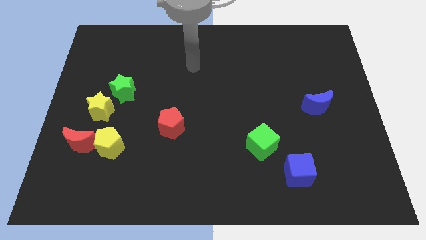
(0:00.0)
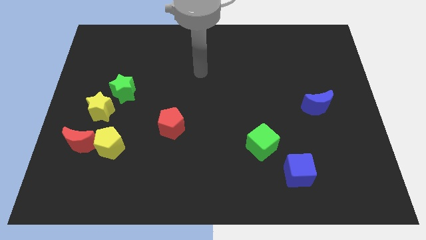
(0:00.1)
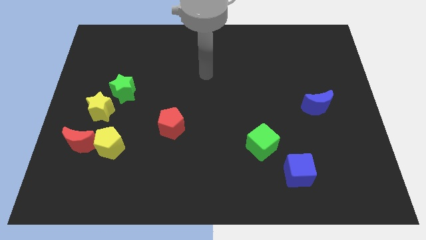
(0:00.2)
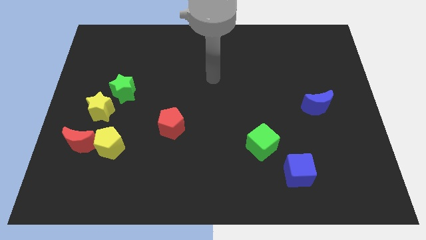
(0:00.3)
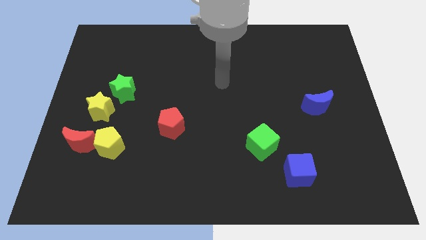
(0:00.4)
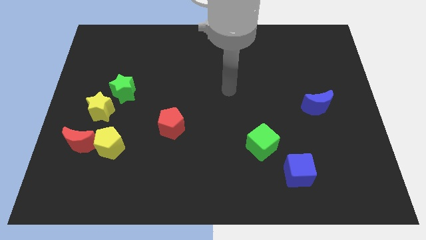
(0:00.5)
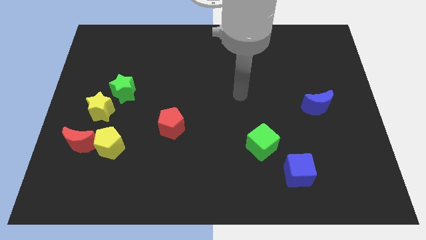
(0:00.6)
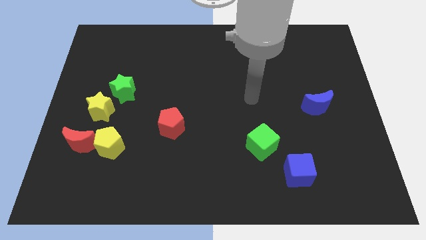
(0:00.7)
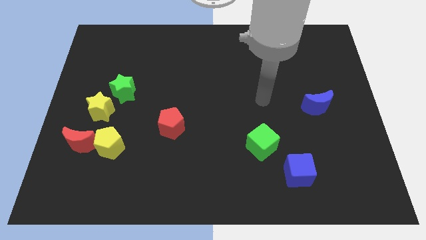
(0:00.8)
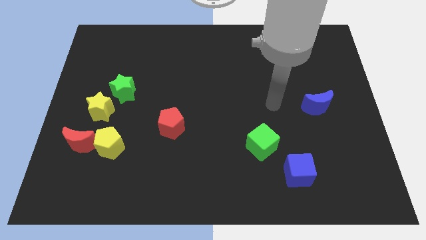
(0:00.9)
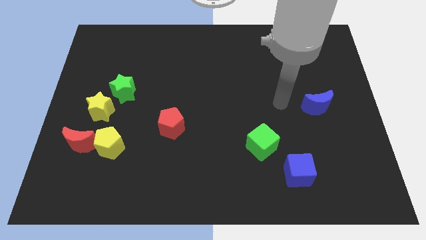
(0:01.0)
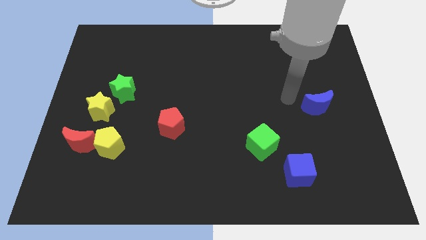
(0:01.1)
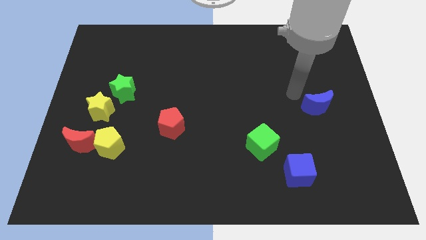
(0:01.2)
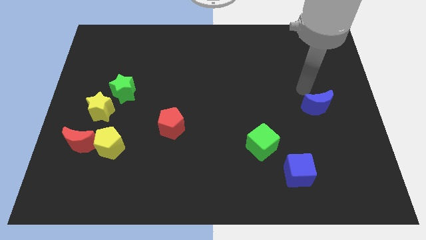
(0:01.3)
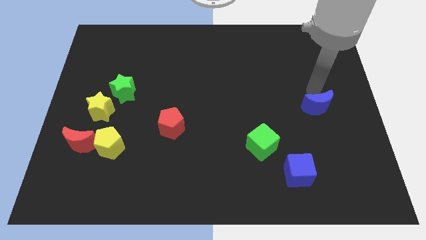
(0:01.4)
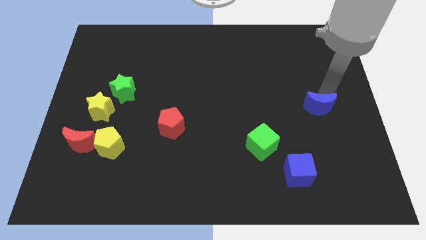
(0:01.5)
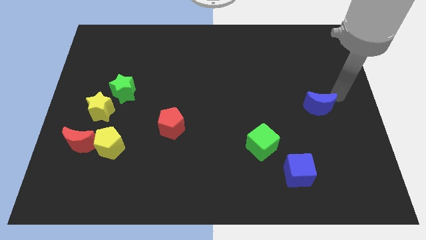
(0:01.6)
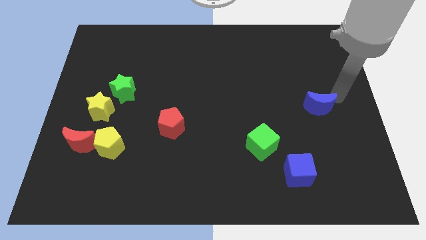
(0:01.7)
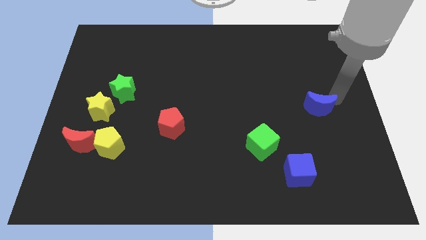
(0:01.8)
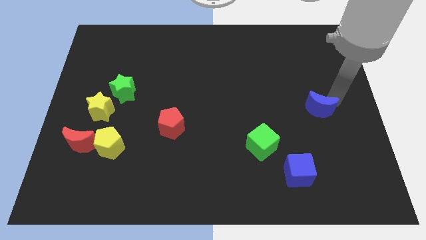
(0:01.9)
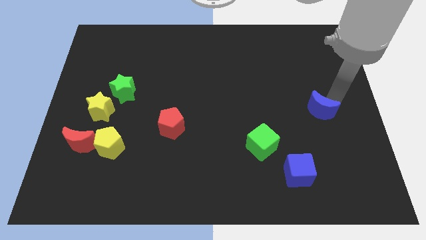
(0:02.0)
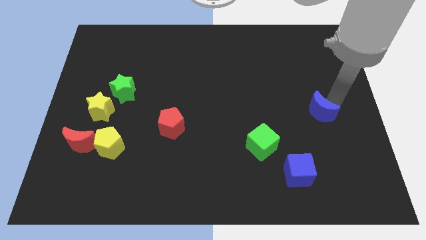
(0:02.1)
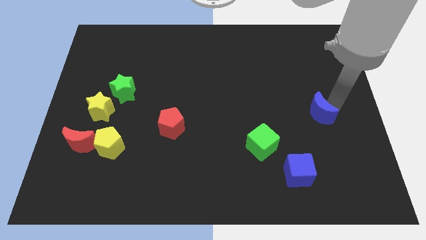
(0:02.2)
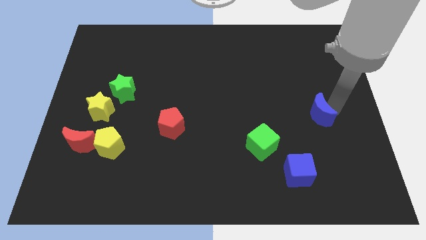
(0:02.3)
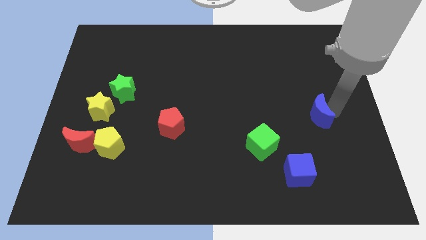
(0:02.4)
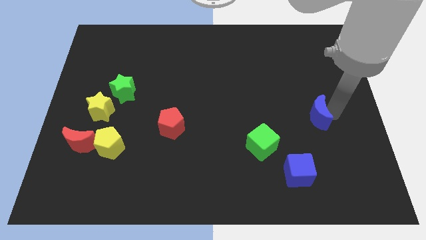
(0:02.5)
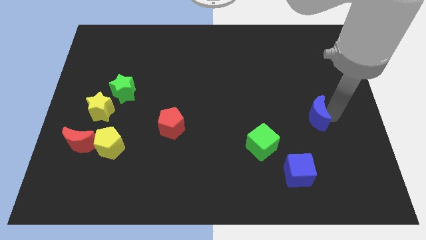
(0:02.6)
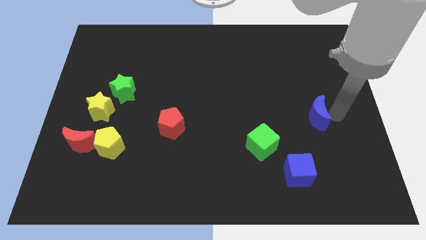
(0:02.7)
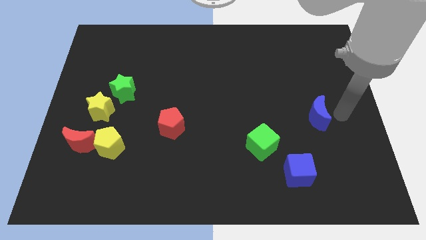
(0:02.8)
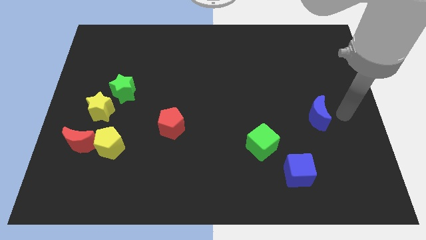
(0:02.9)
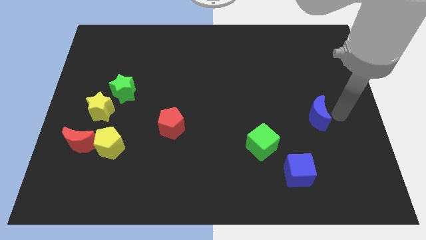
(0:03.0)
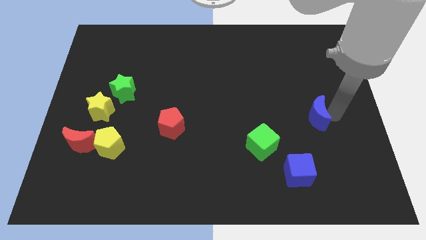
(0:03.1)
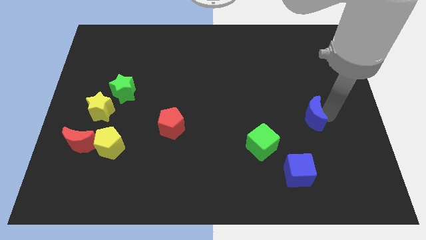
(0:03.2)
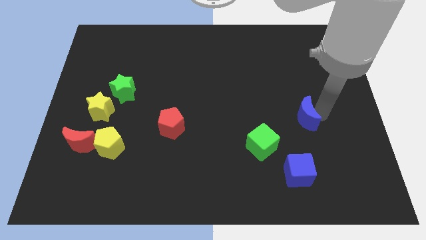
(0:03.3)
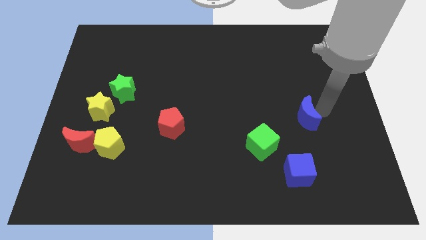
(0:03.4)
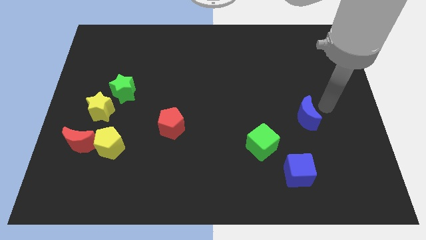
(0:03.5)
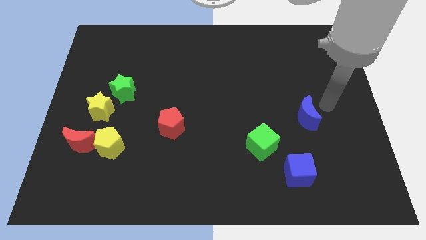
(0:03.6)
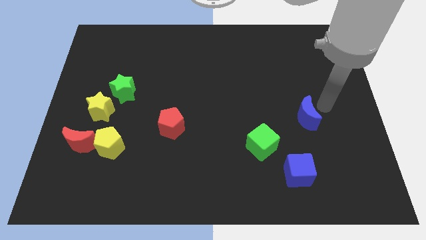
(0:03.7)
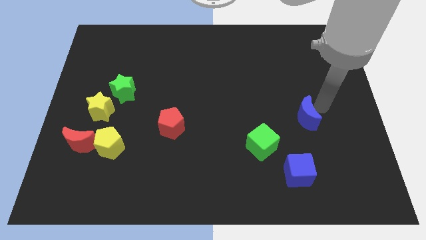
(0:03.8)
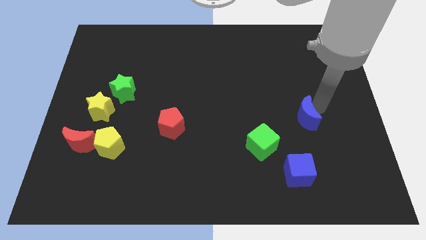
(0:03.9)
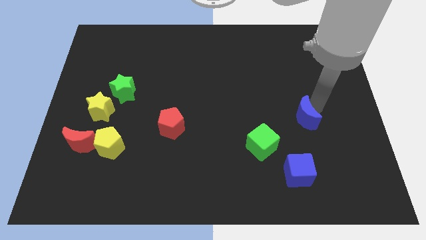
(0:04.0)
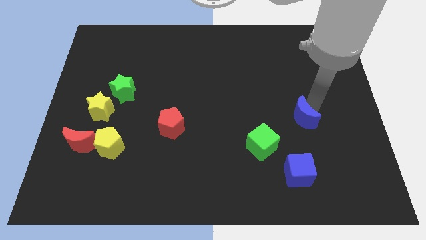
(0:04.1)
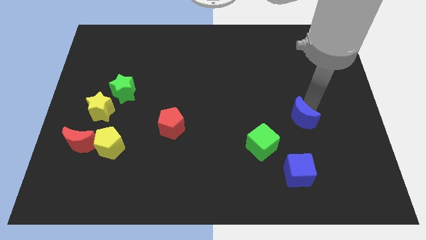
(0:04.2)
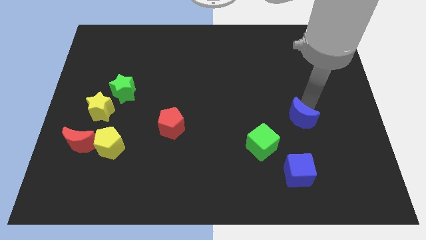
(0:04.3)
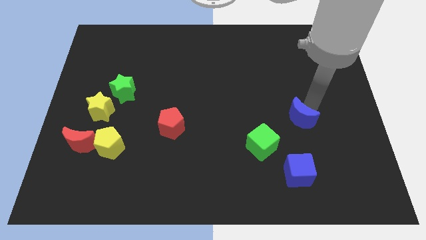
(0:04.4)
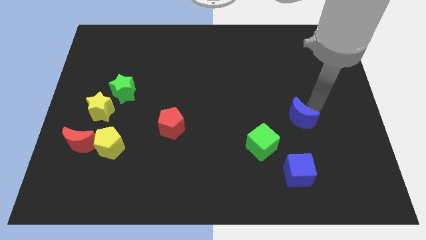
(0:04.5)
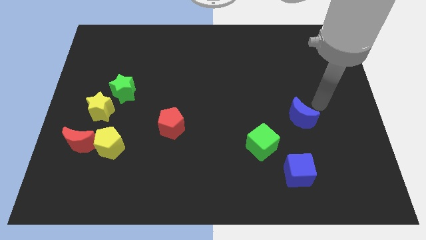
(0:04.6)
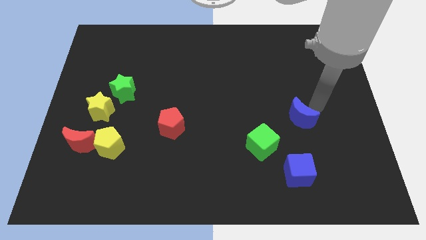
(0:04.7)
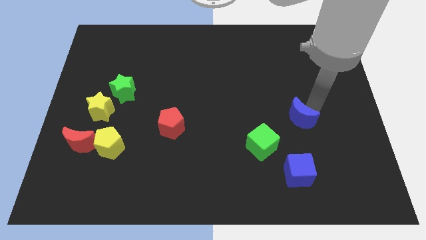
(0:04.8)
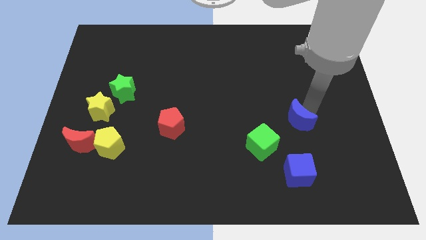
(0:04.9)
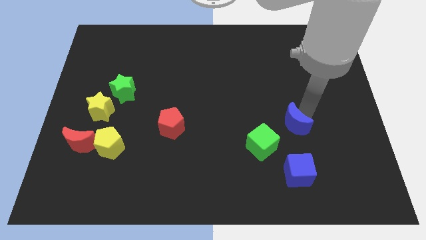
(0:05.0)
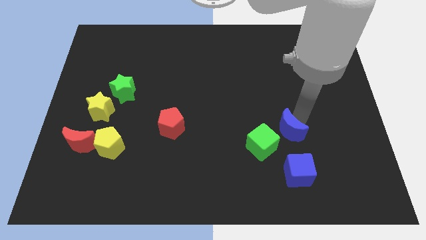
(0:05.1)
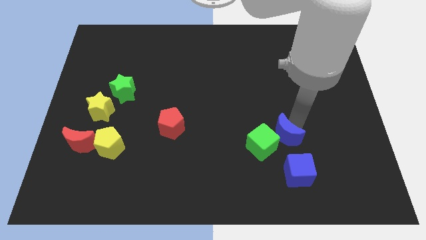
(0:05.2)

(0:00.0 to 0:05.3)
put the blue moon next to the green cube

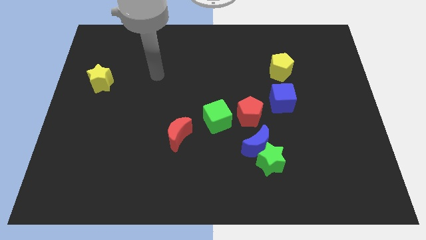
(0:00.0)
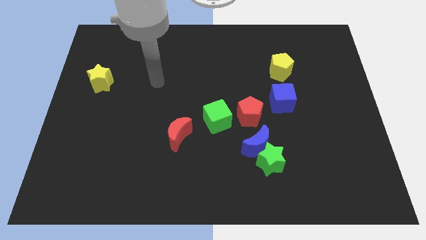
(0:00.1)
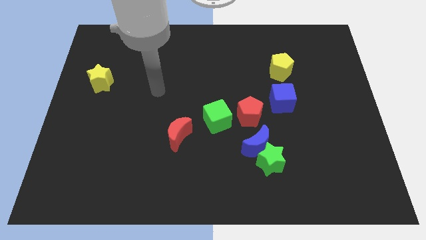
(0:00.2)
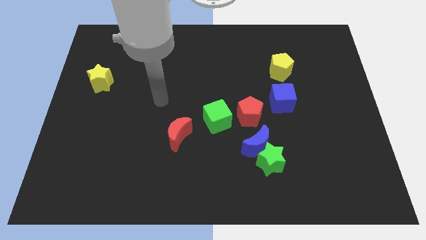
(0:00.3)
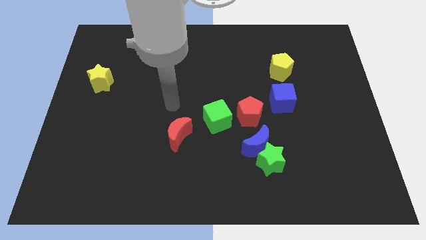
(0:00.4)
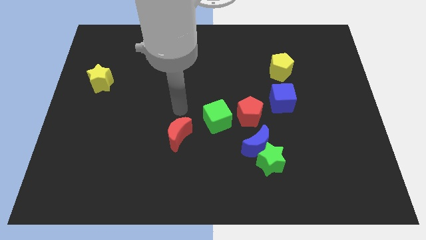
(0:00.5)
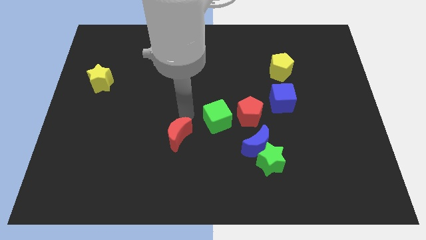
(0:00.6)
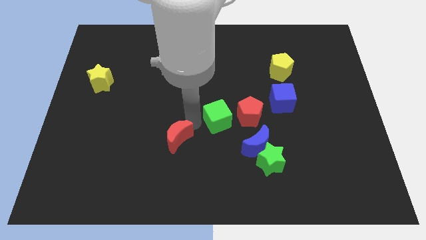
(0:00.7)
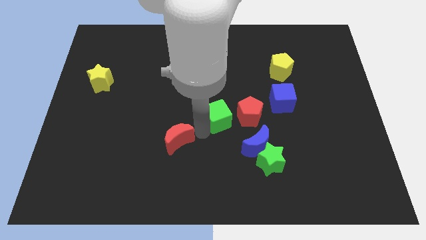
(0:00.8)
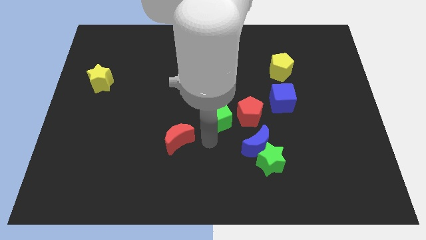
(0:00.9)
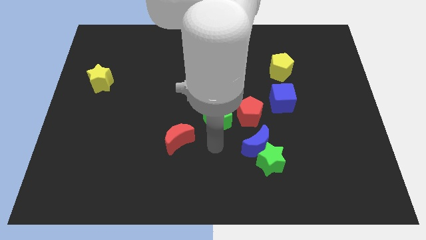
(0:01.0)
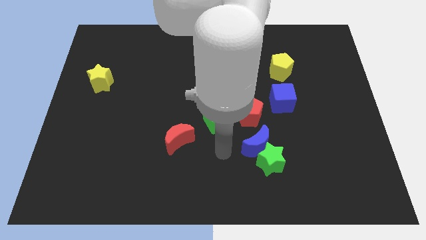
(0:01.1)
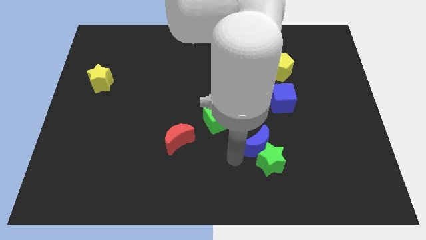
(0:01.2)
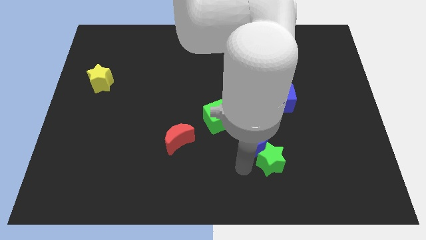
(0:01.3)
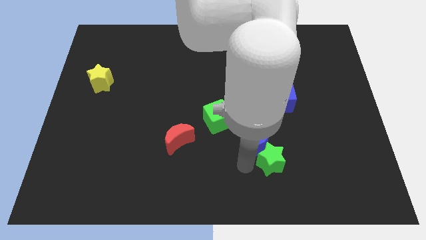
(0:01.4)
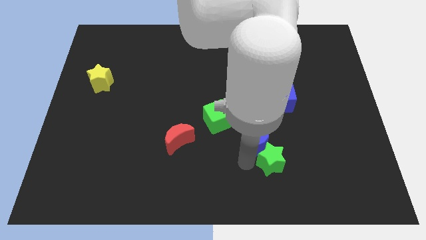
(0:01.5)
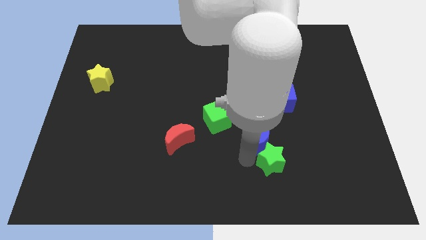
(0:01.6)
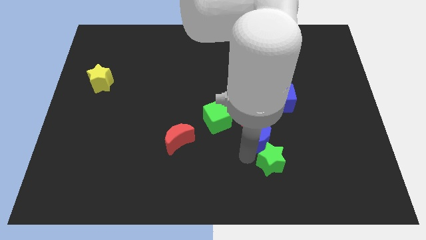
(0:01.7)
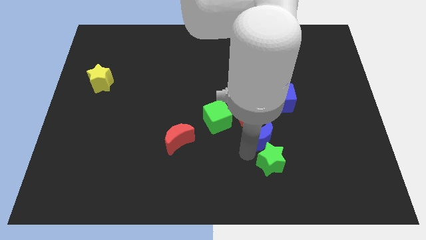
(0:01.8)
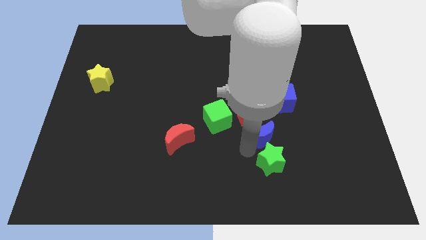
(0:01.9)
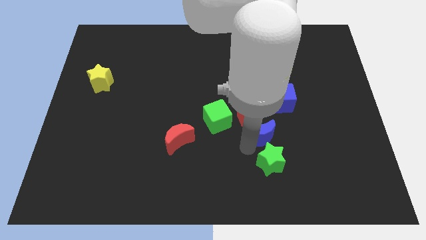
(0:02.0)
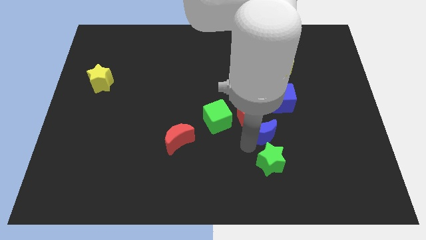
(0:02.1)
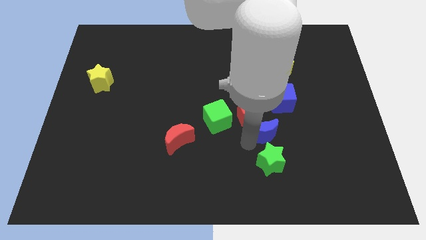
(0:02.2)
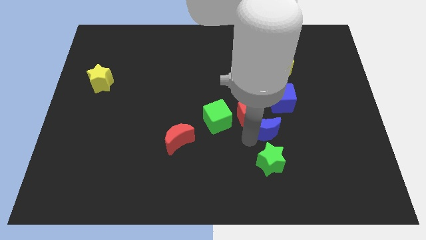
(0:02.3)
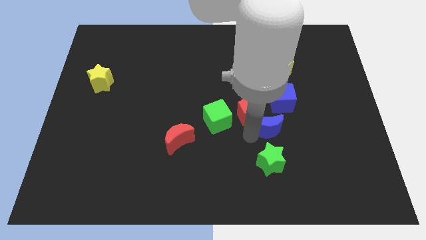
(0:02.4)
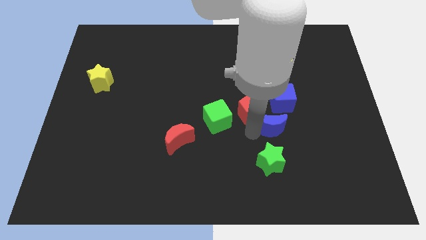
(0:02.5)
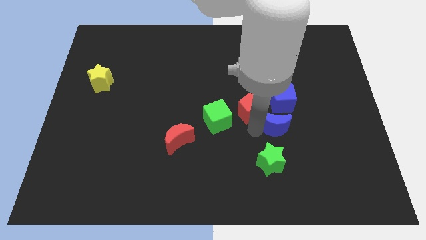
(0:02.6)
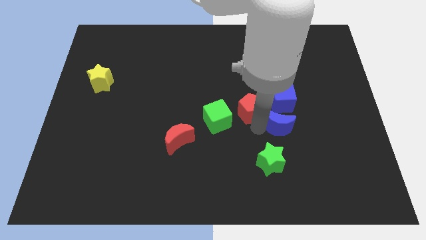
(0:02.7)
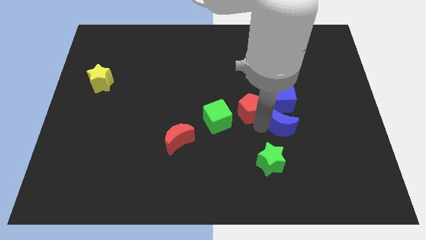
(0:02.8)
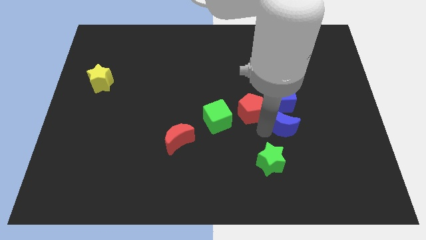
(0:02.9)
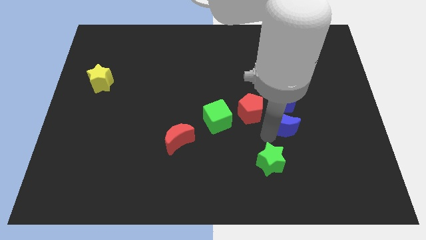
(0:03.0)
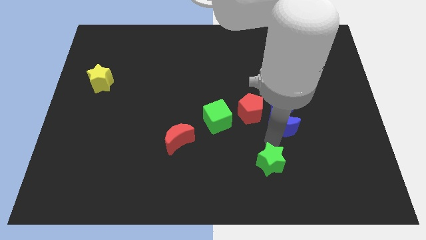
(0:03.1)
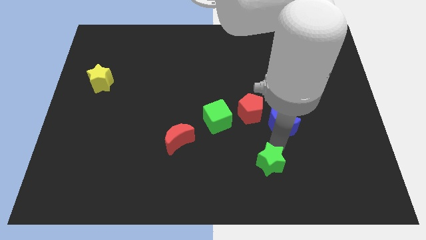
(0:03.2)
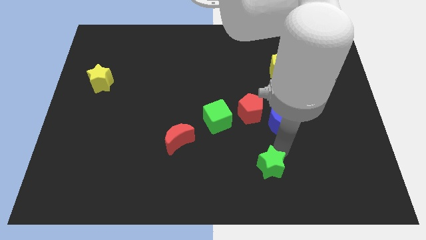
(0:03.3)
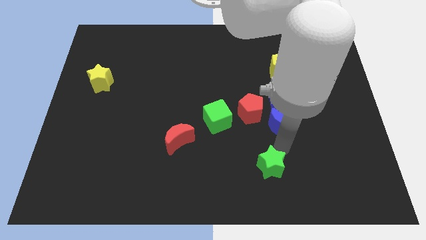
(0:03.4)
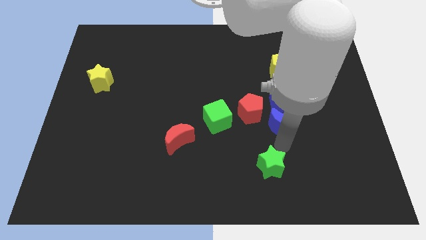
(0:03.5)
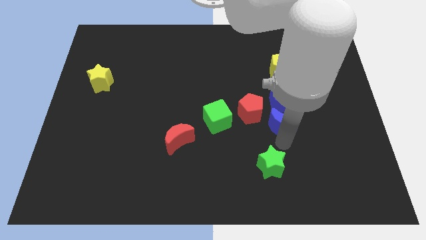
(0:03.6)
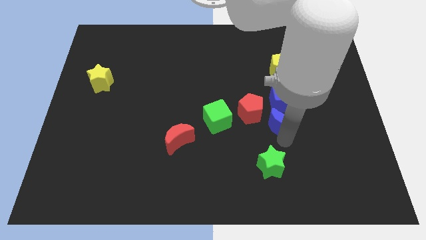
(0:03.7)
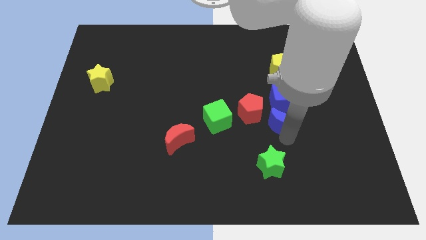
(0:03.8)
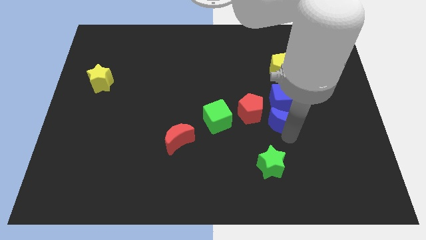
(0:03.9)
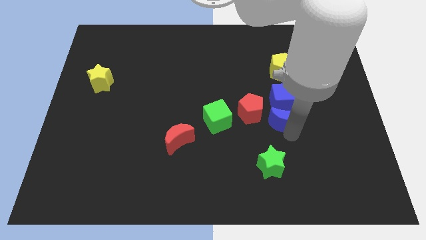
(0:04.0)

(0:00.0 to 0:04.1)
push the blue moon close to the blue cube
